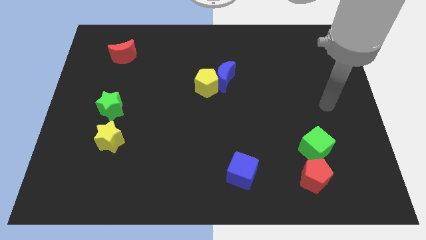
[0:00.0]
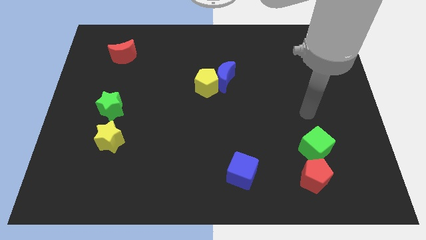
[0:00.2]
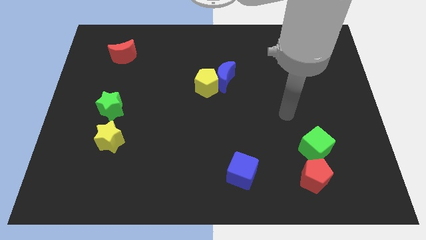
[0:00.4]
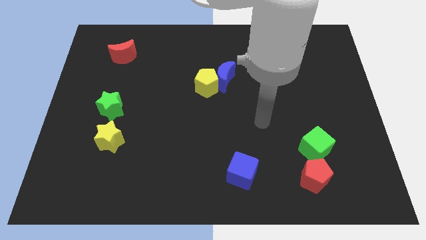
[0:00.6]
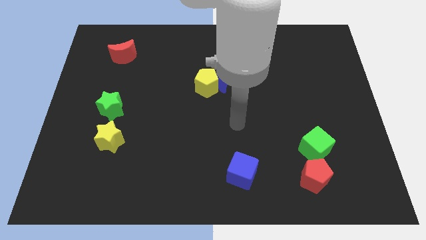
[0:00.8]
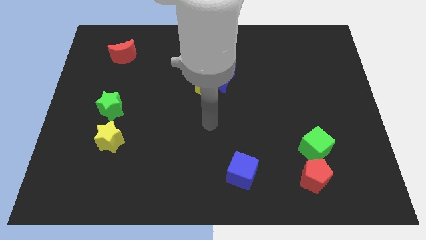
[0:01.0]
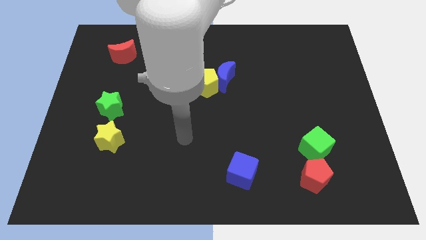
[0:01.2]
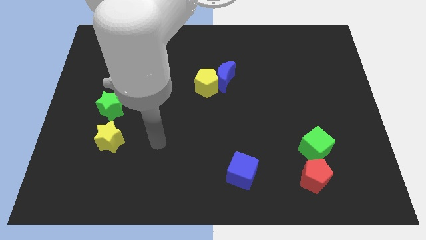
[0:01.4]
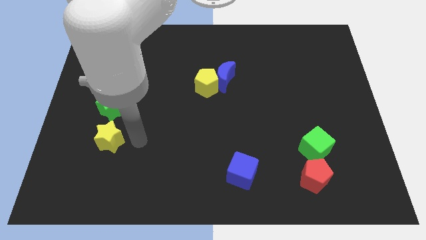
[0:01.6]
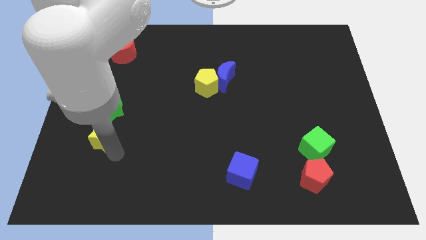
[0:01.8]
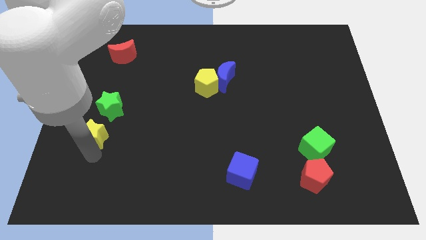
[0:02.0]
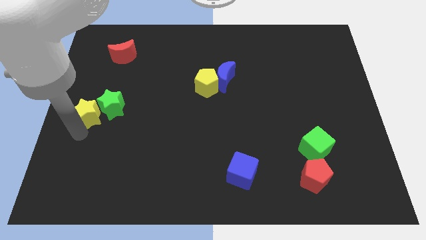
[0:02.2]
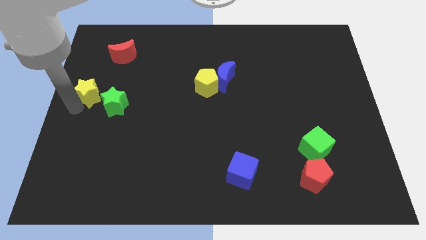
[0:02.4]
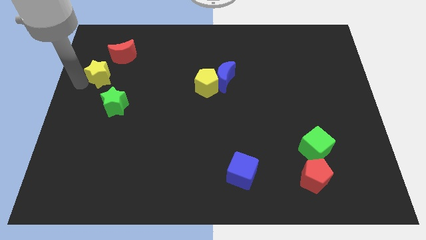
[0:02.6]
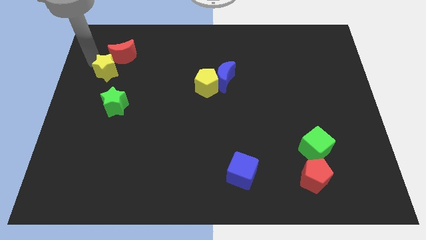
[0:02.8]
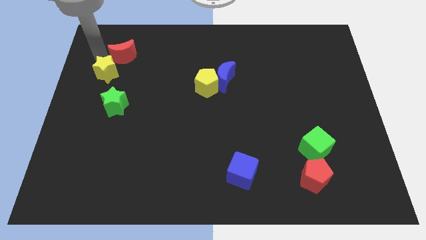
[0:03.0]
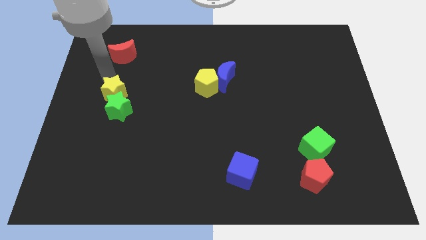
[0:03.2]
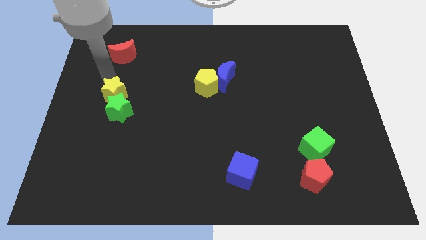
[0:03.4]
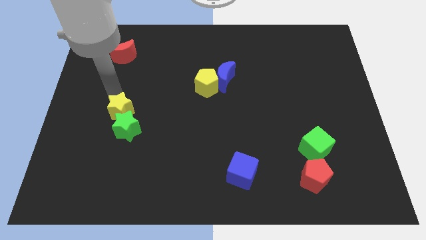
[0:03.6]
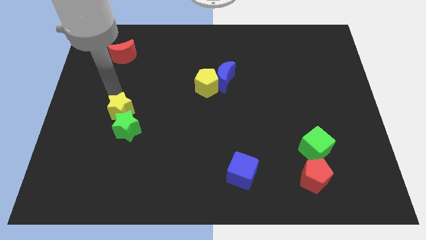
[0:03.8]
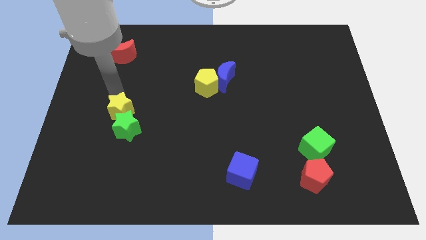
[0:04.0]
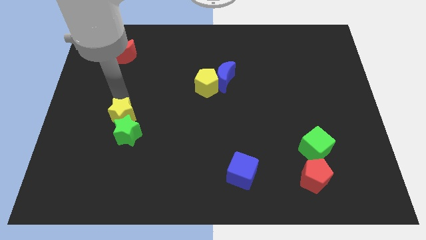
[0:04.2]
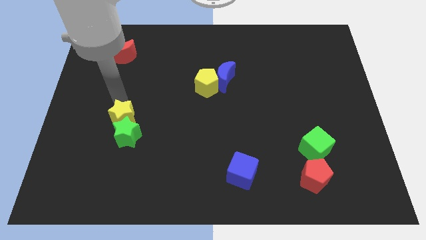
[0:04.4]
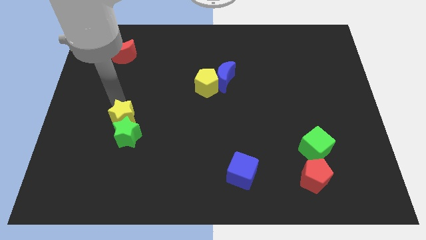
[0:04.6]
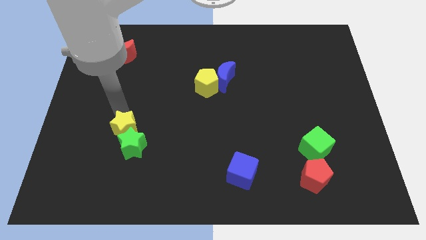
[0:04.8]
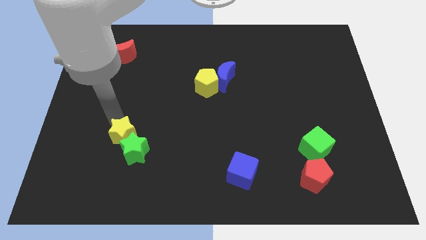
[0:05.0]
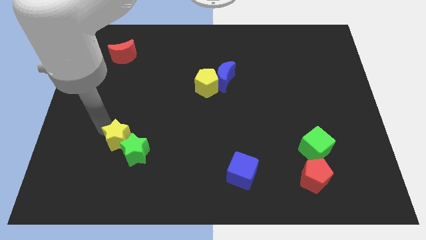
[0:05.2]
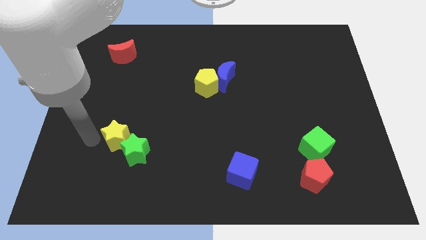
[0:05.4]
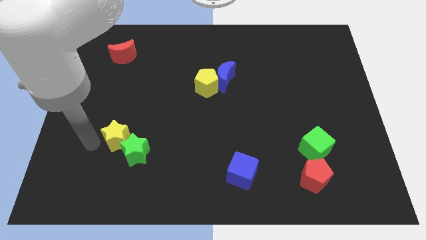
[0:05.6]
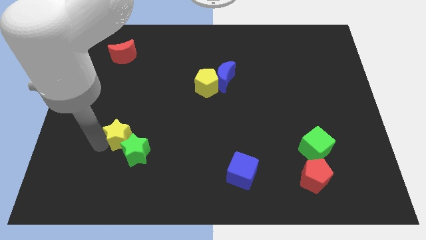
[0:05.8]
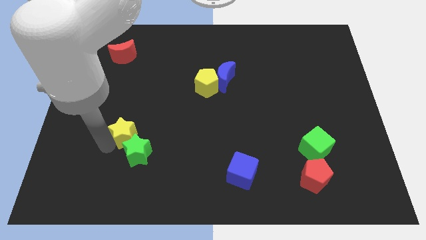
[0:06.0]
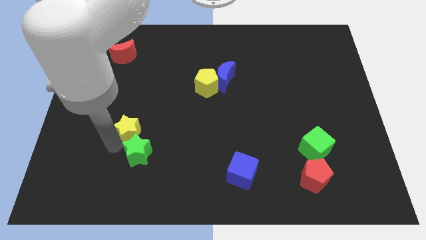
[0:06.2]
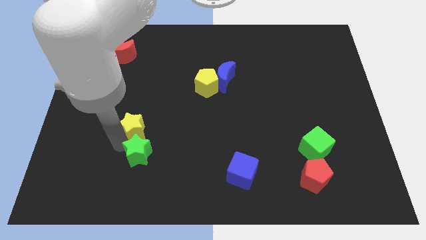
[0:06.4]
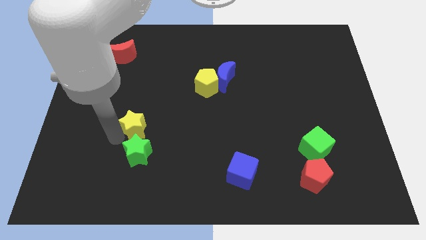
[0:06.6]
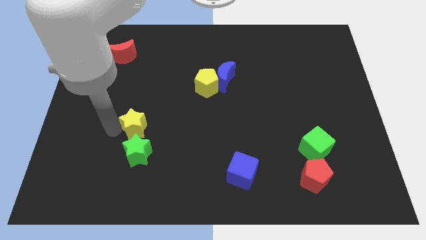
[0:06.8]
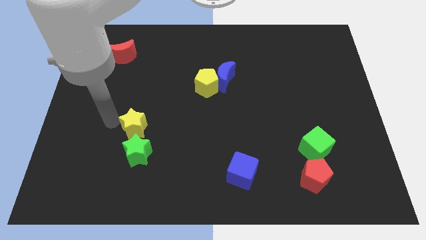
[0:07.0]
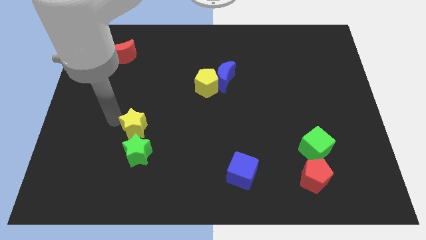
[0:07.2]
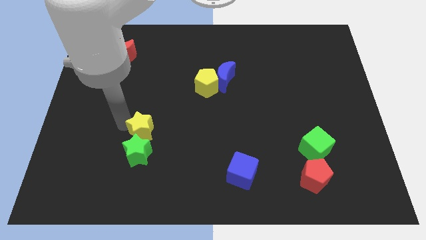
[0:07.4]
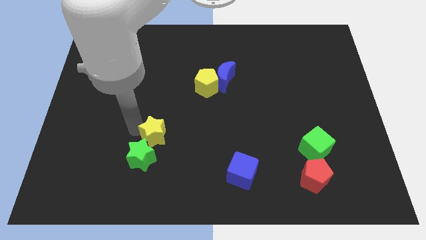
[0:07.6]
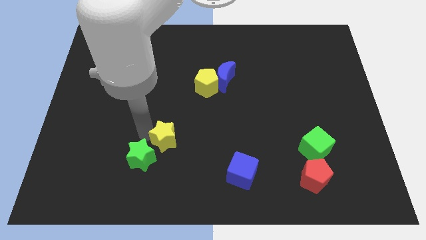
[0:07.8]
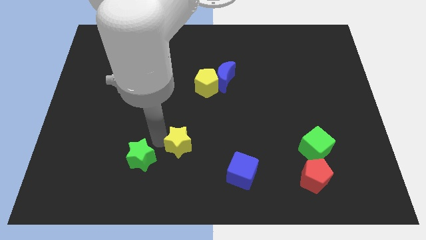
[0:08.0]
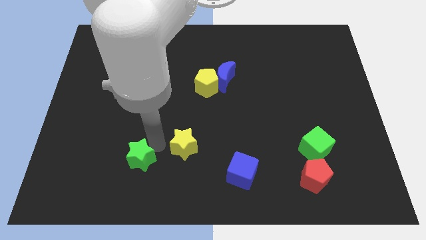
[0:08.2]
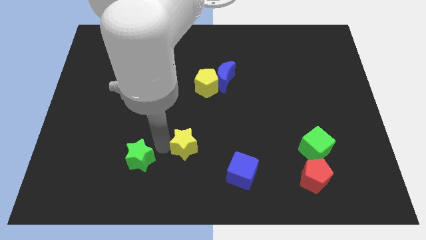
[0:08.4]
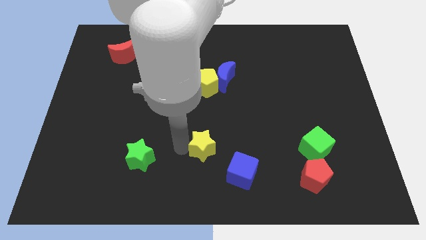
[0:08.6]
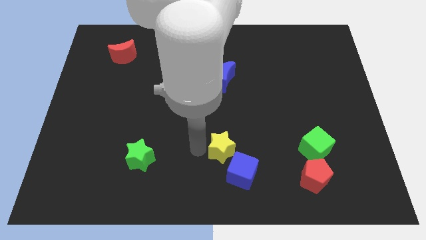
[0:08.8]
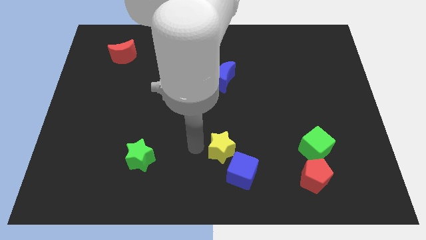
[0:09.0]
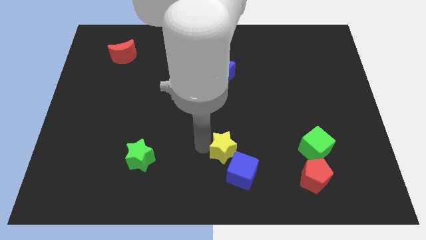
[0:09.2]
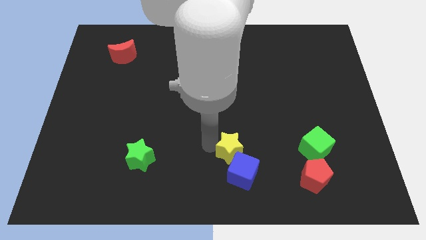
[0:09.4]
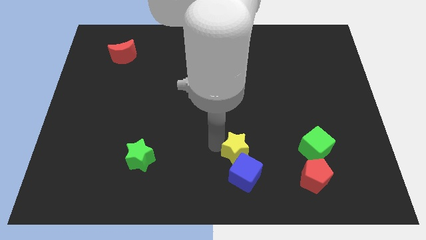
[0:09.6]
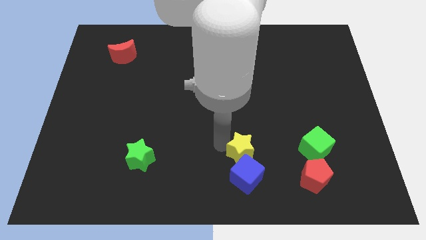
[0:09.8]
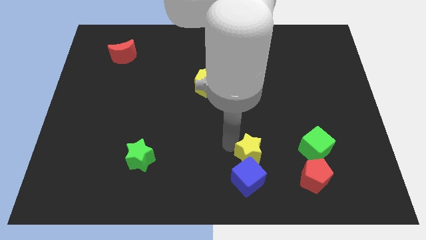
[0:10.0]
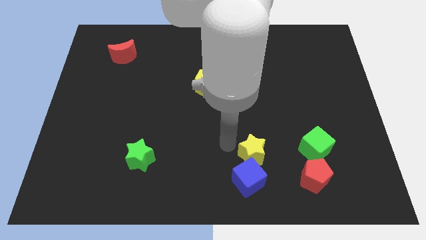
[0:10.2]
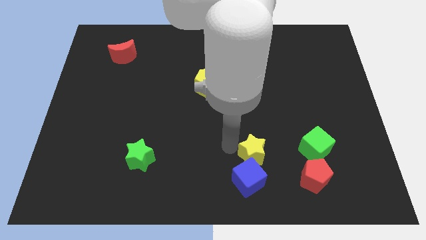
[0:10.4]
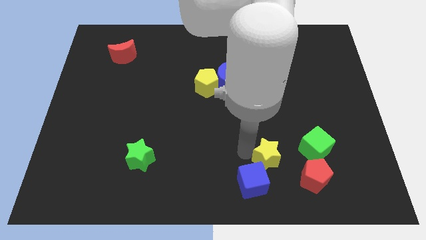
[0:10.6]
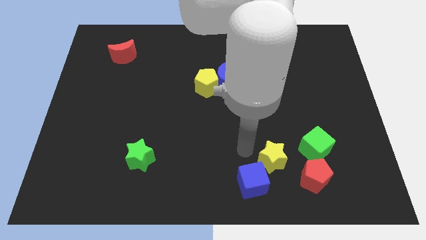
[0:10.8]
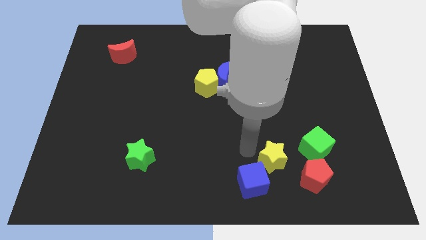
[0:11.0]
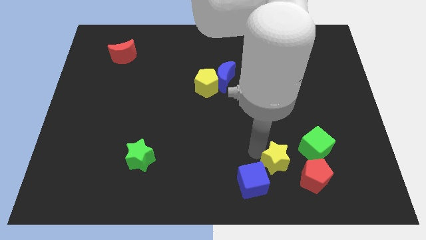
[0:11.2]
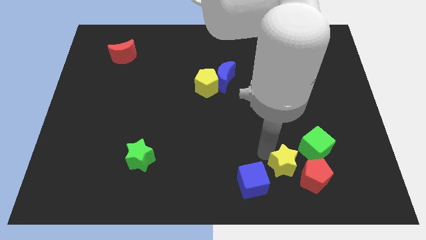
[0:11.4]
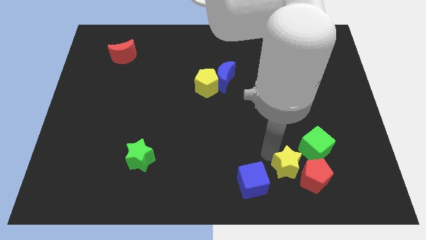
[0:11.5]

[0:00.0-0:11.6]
put the yellow star close to the red pentagon

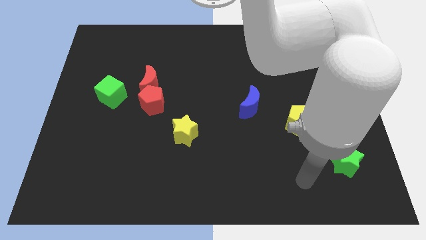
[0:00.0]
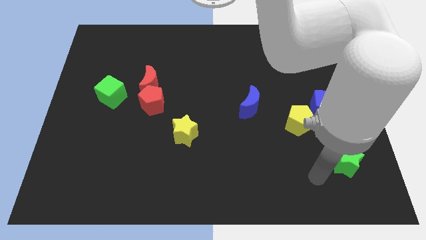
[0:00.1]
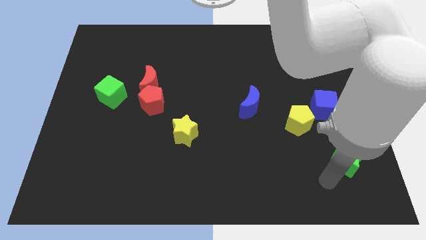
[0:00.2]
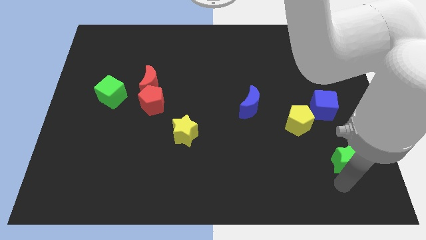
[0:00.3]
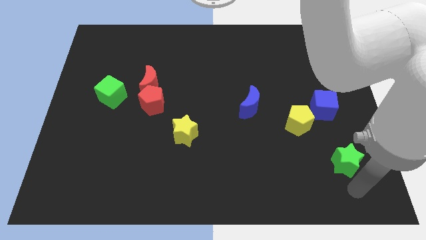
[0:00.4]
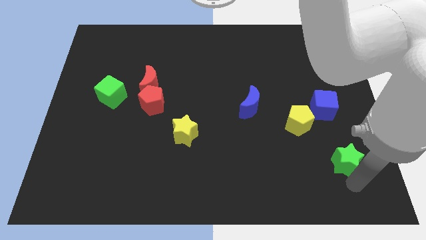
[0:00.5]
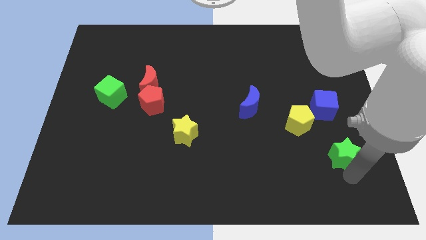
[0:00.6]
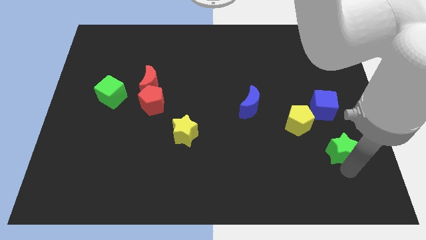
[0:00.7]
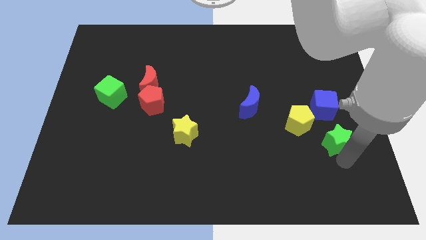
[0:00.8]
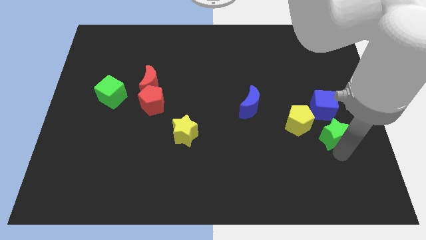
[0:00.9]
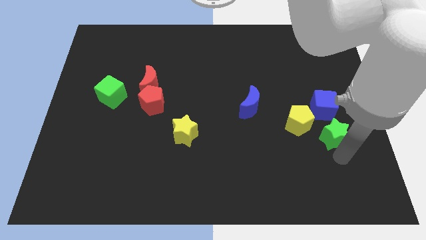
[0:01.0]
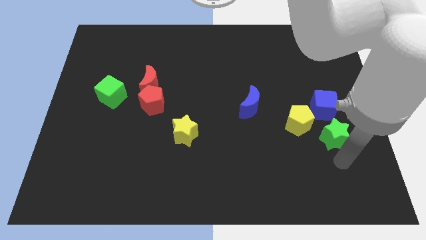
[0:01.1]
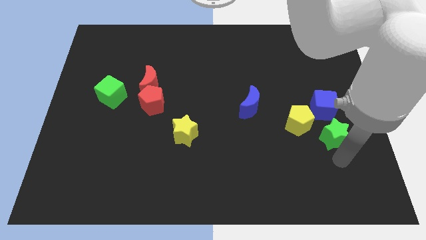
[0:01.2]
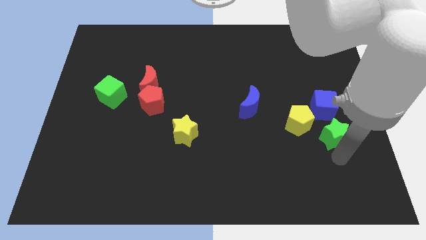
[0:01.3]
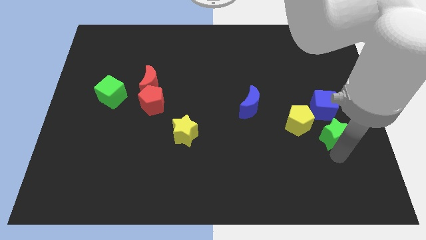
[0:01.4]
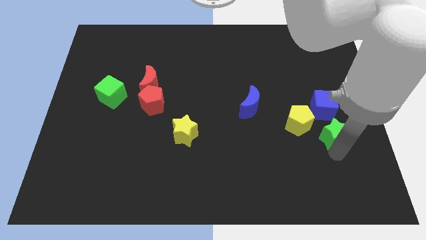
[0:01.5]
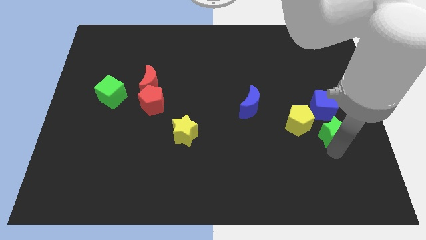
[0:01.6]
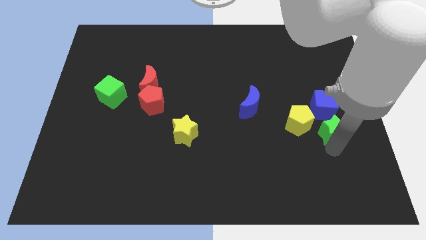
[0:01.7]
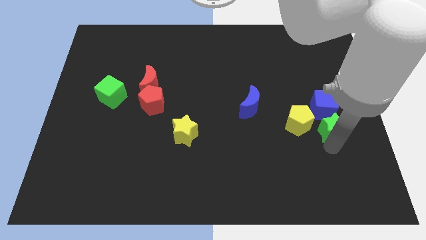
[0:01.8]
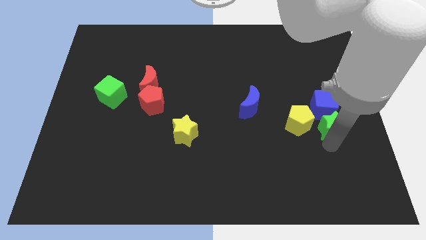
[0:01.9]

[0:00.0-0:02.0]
move the green star close to the blue cube
